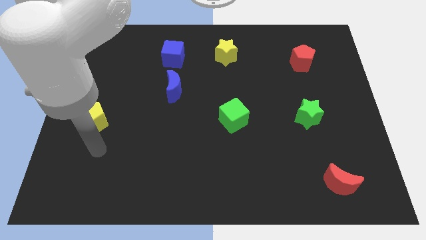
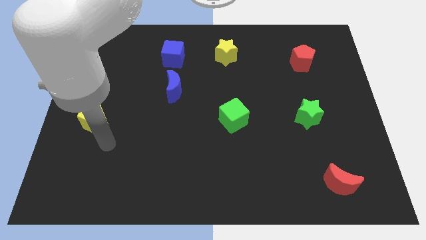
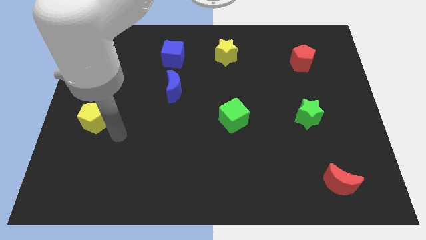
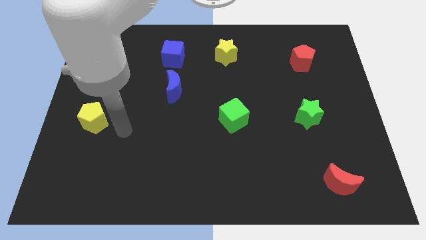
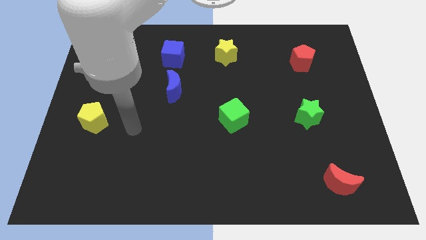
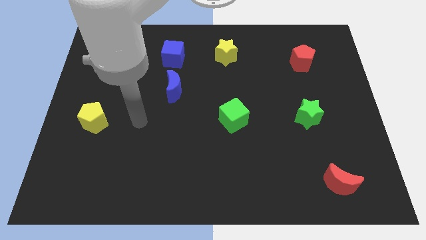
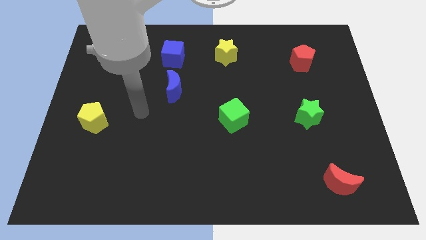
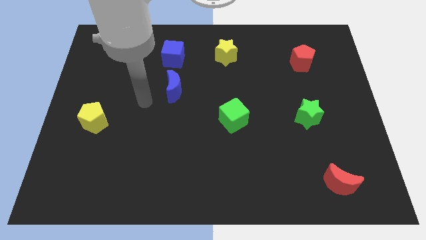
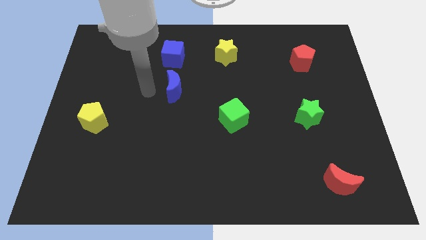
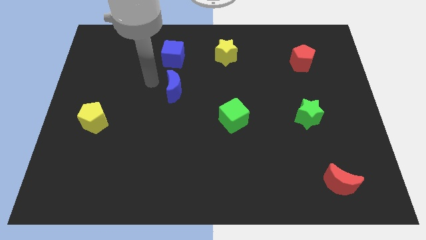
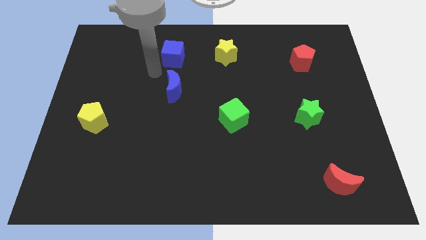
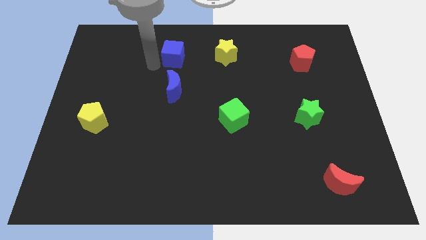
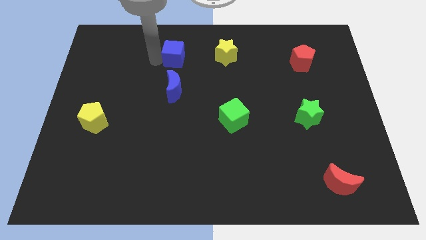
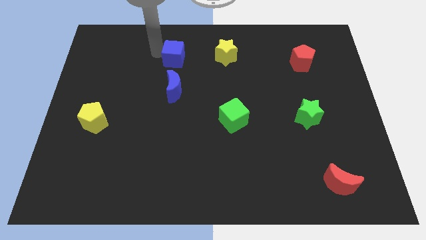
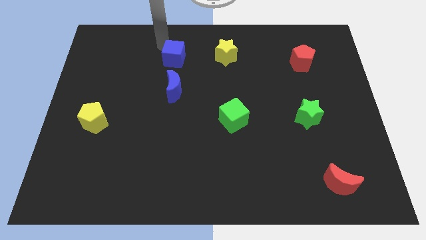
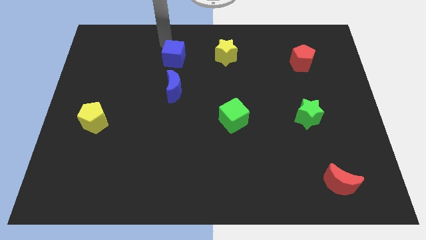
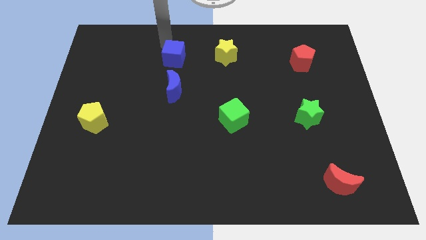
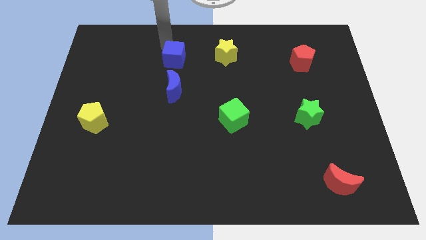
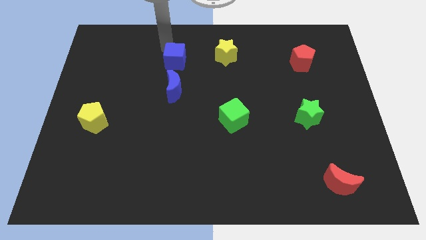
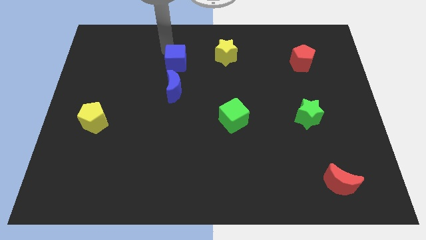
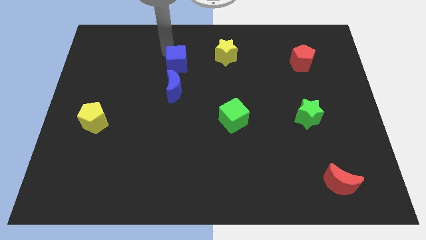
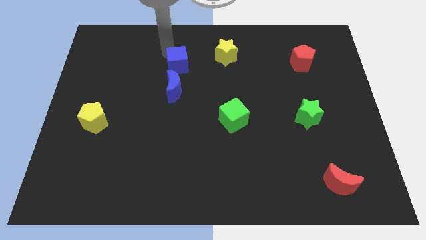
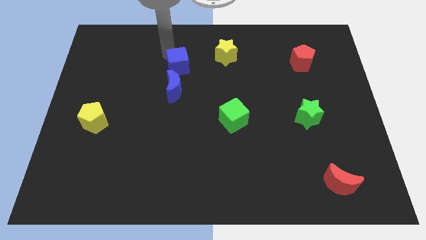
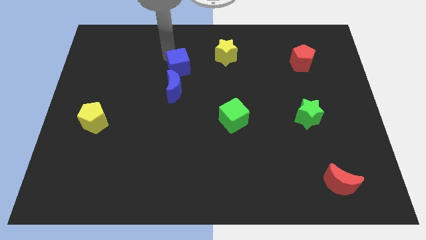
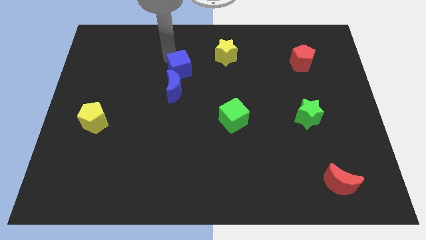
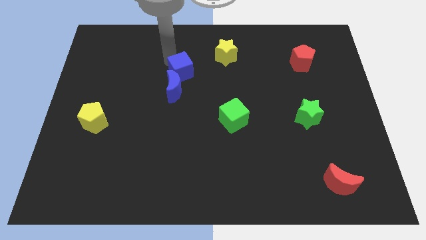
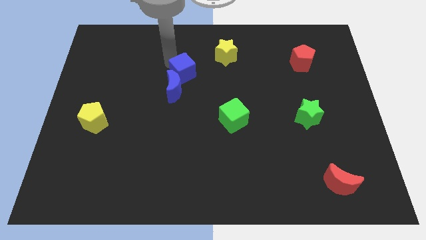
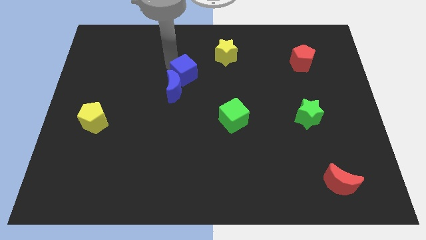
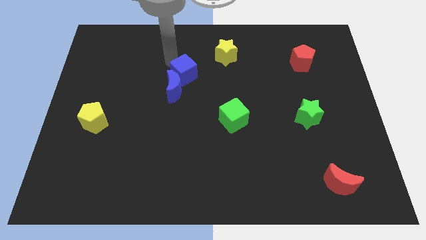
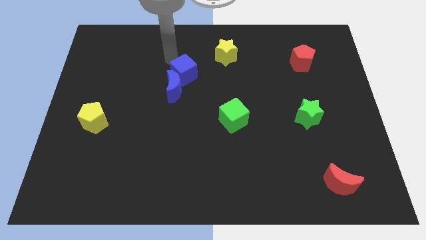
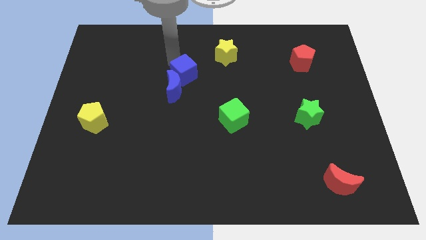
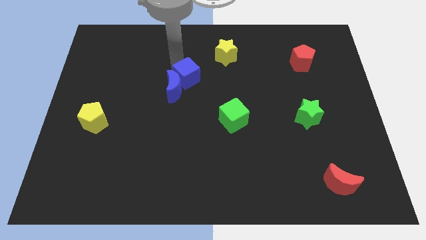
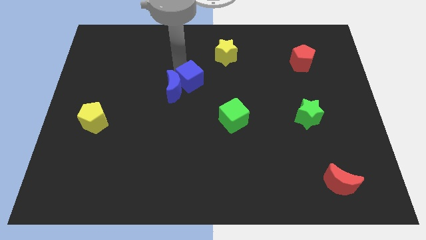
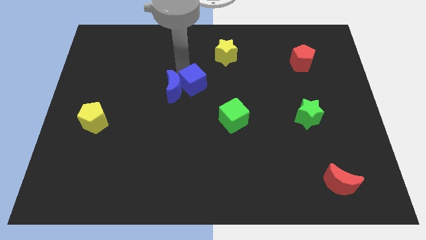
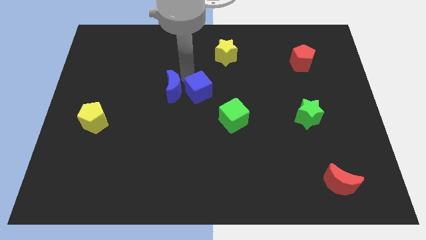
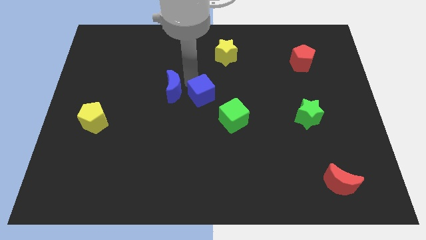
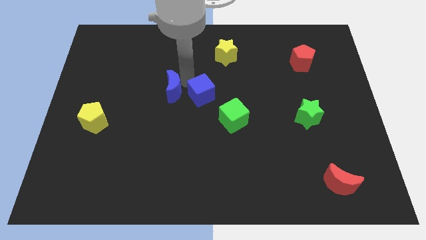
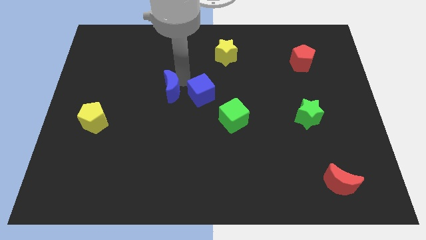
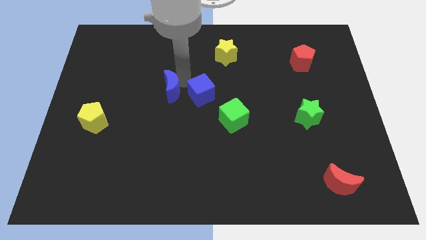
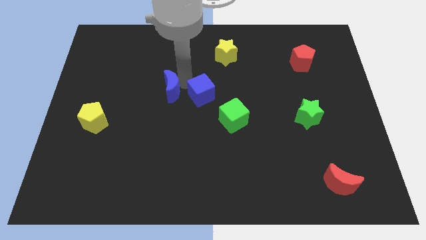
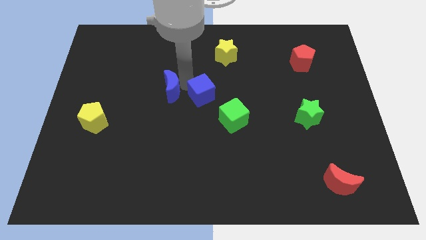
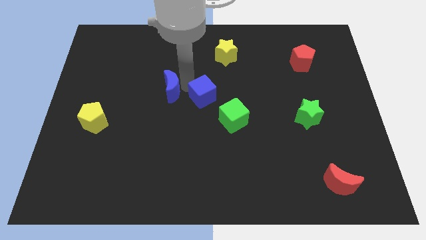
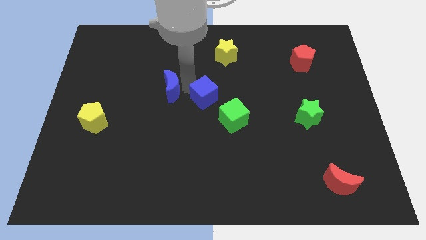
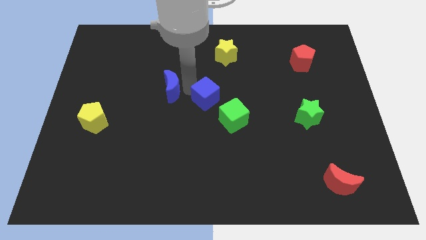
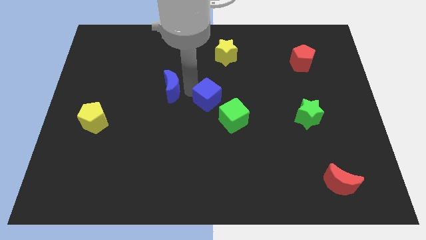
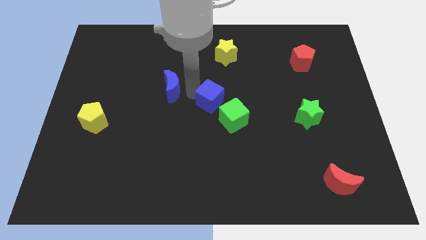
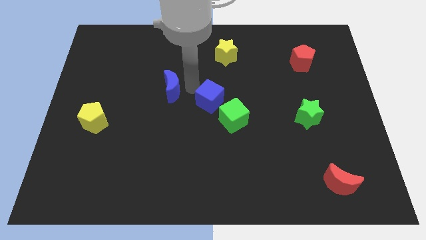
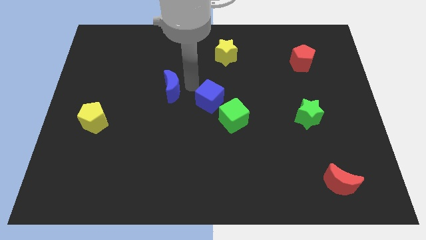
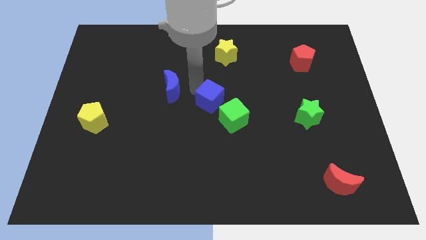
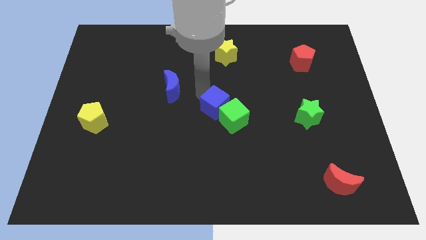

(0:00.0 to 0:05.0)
push the blue cube next to the green cube

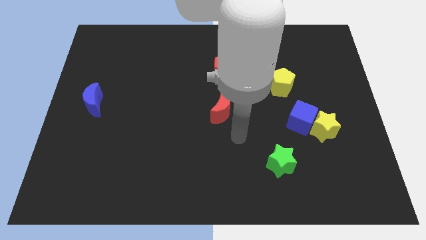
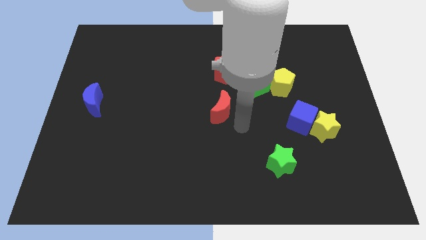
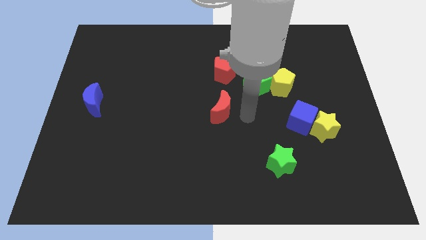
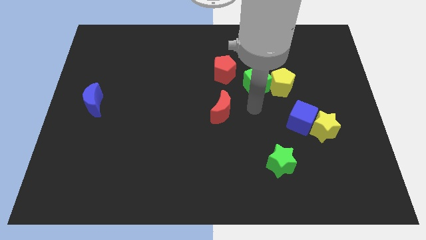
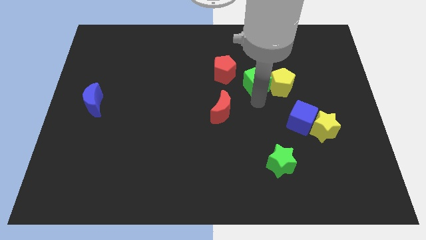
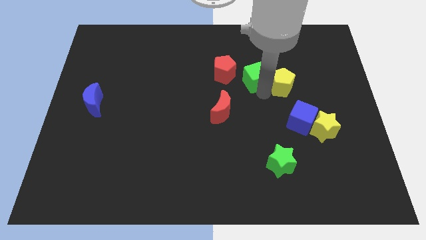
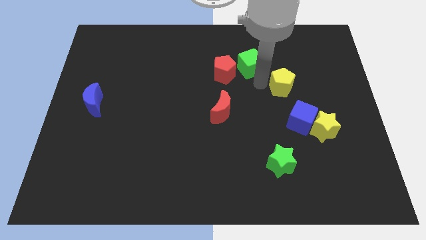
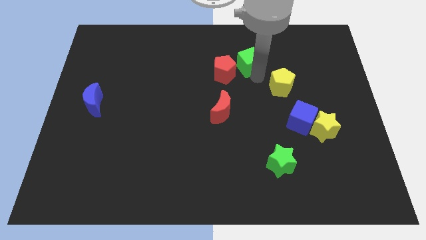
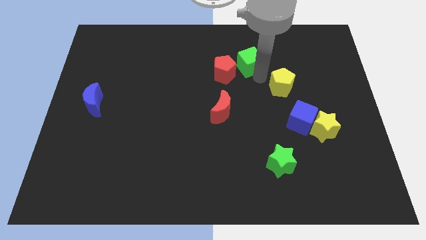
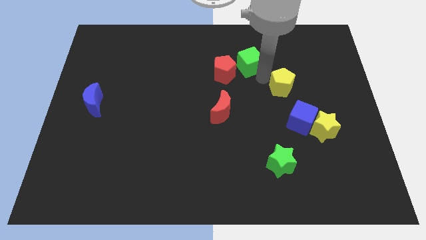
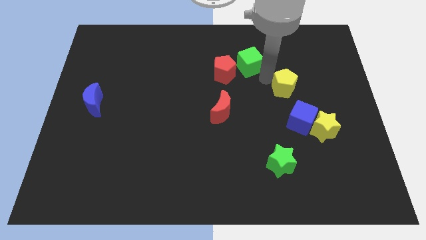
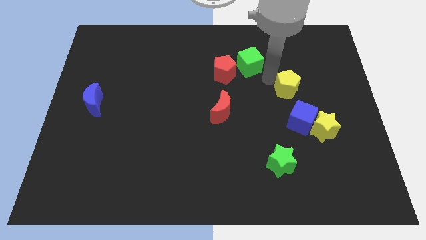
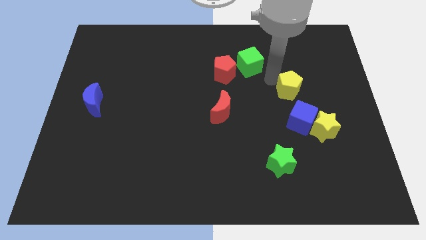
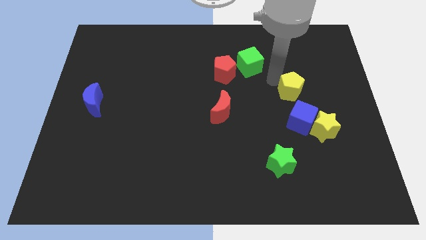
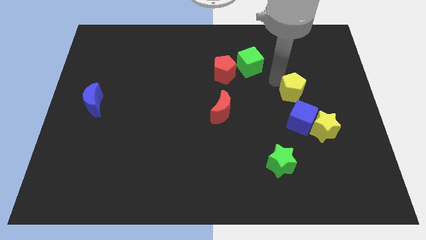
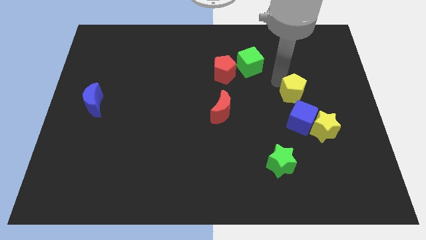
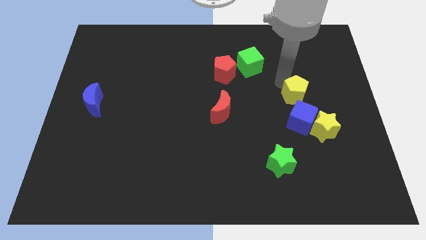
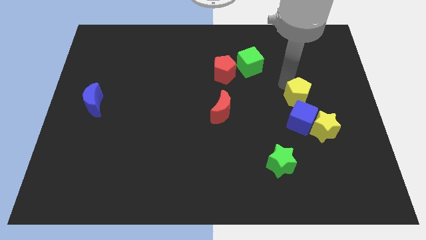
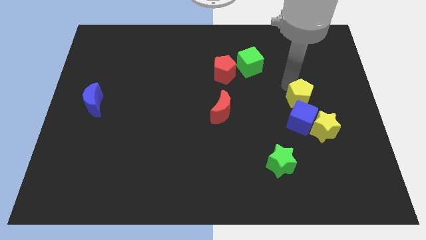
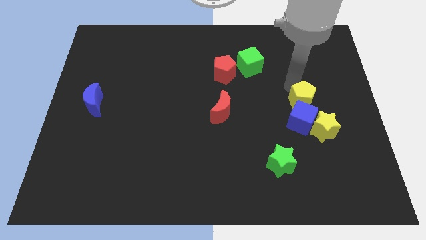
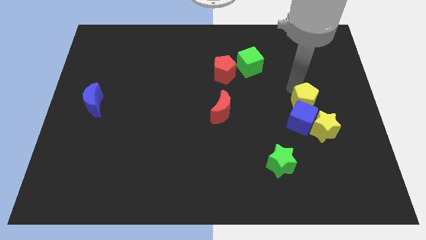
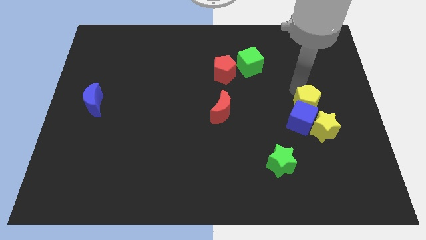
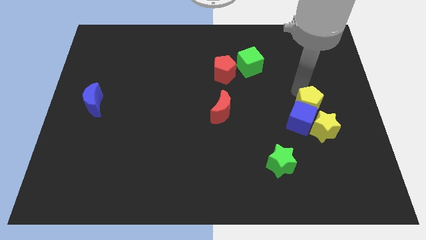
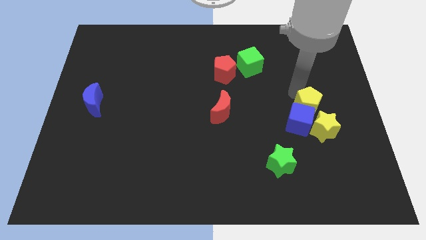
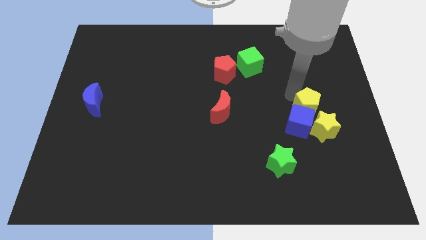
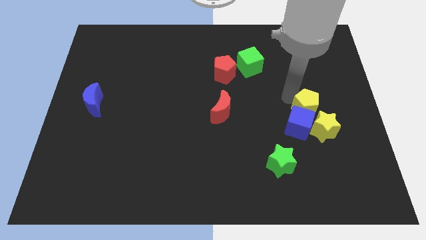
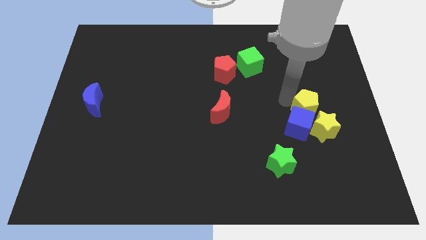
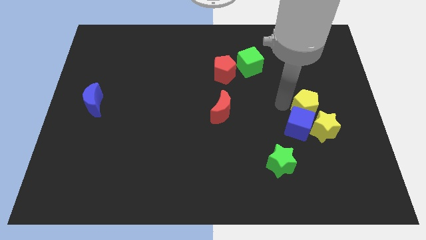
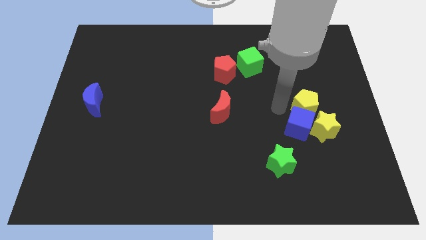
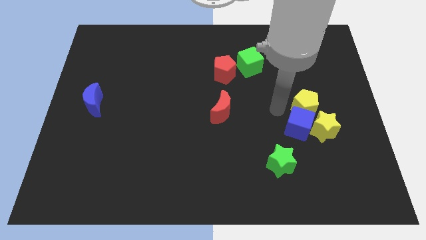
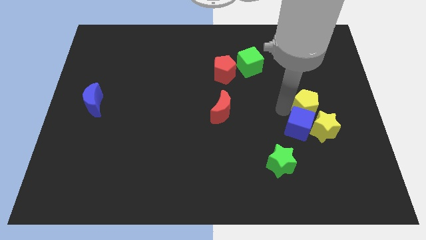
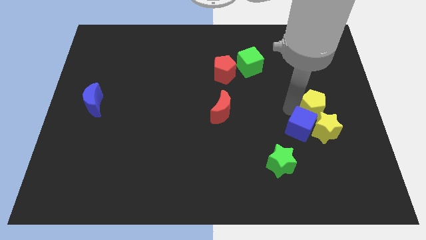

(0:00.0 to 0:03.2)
put the yellow pentagon next to the yellow star
